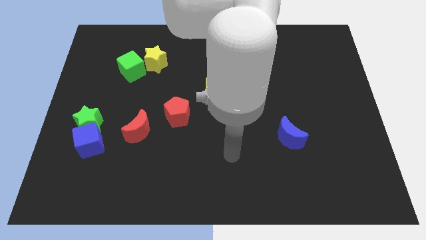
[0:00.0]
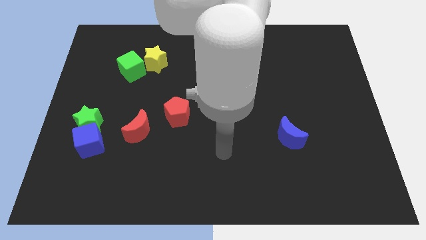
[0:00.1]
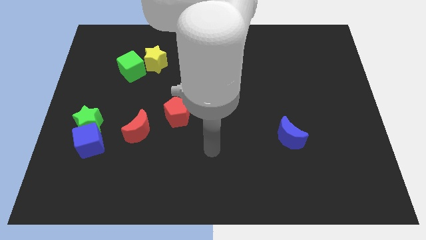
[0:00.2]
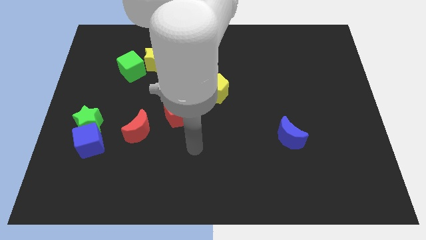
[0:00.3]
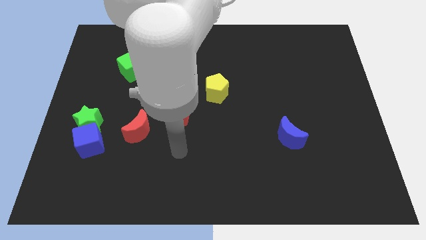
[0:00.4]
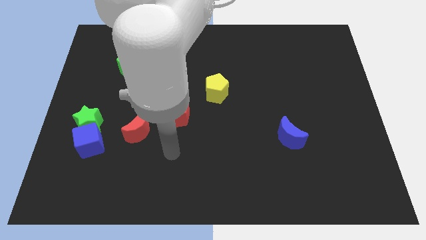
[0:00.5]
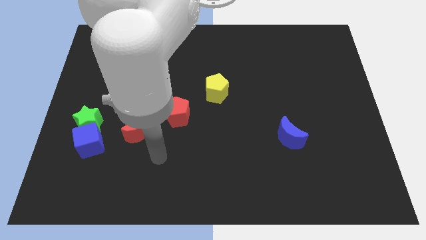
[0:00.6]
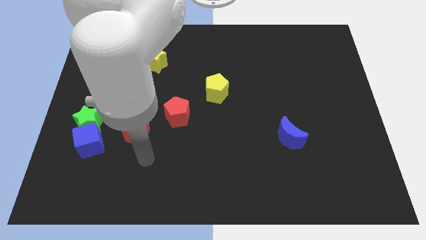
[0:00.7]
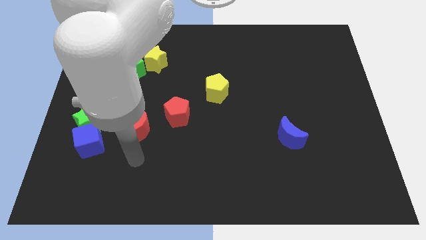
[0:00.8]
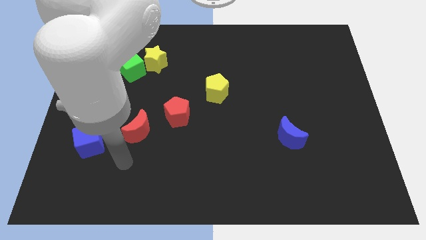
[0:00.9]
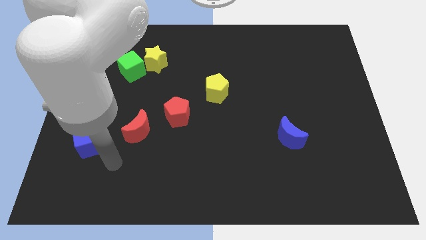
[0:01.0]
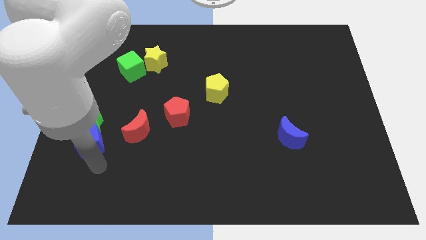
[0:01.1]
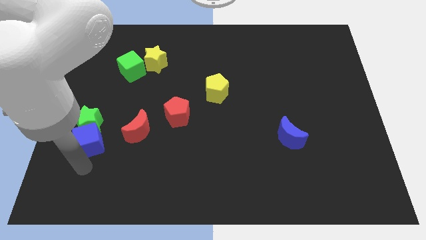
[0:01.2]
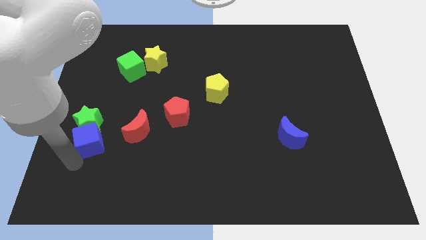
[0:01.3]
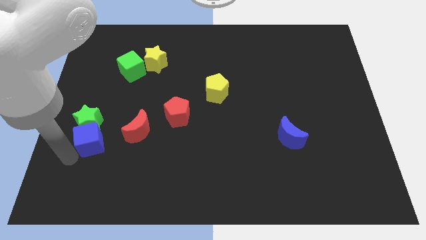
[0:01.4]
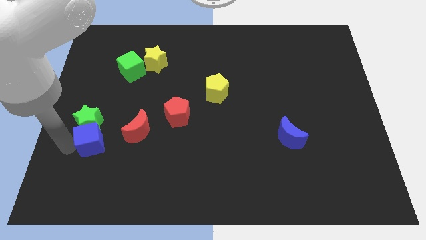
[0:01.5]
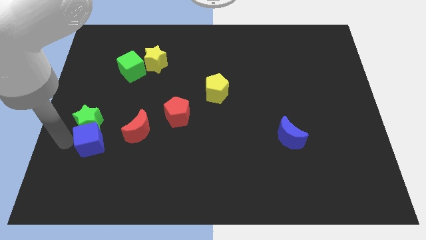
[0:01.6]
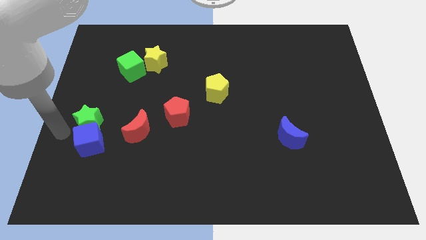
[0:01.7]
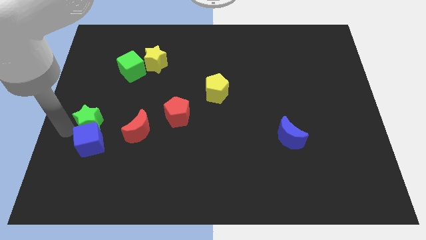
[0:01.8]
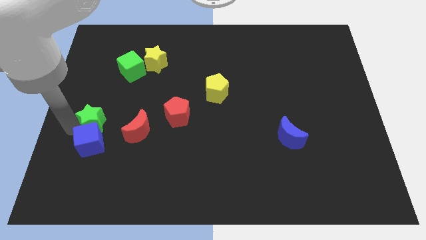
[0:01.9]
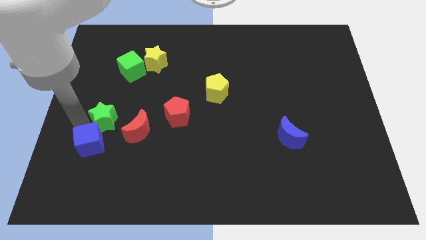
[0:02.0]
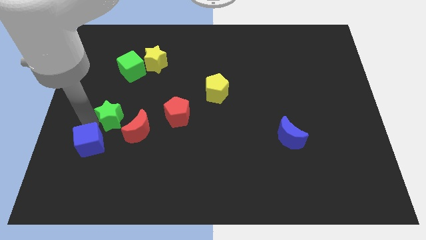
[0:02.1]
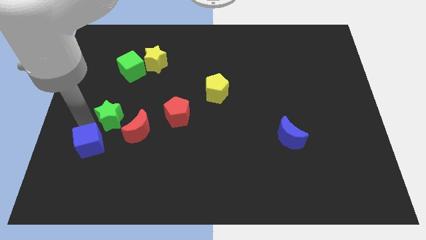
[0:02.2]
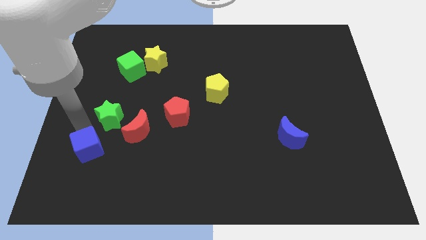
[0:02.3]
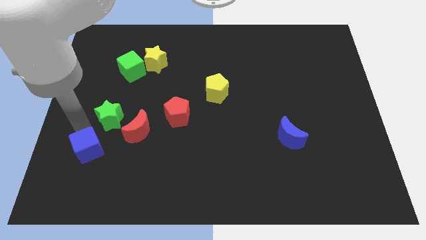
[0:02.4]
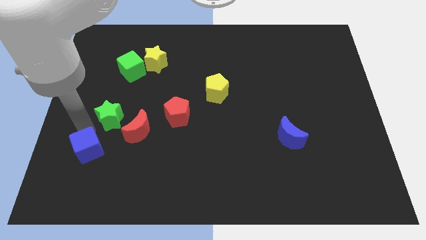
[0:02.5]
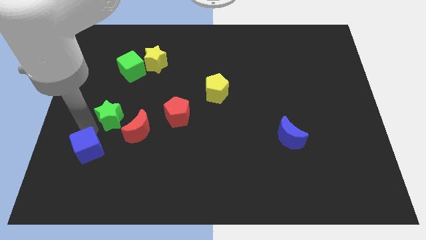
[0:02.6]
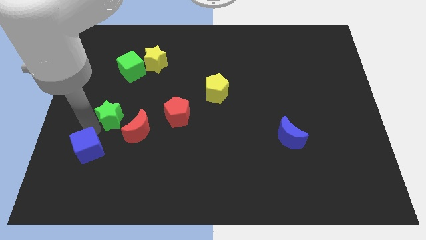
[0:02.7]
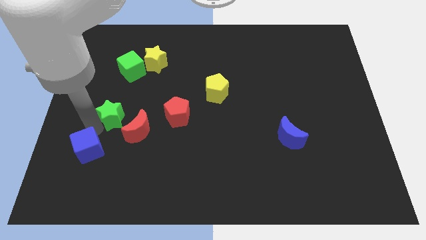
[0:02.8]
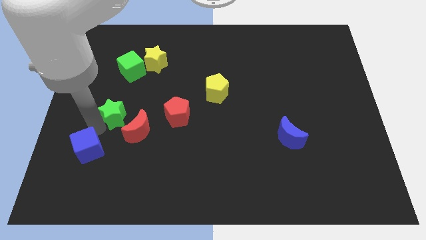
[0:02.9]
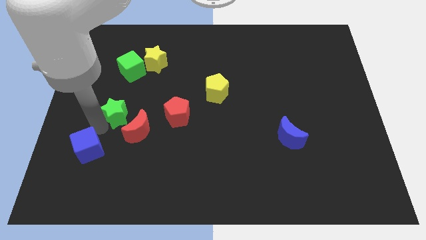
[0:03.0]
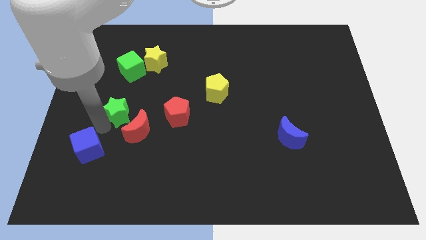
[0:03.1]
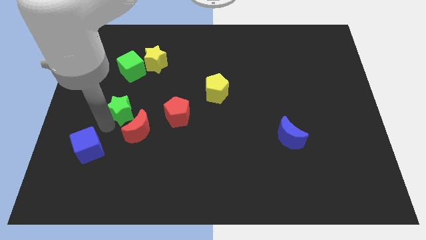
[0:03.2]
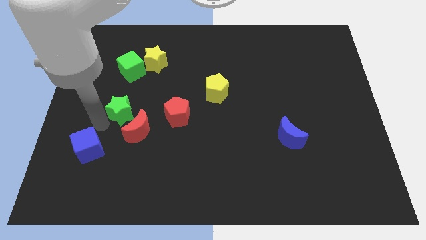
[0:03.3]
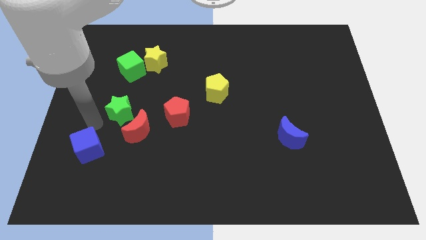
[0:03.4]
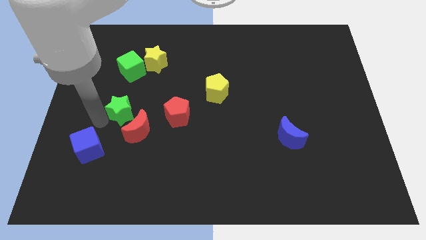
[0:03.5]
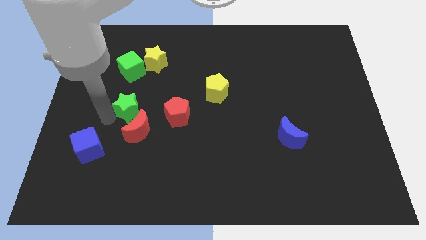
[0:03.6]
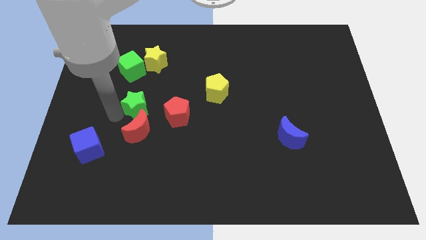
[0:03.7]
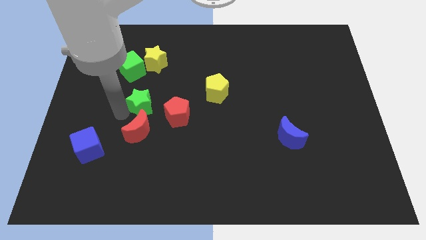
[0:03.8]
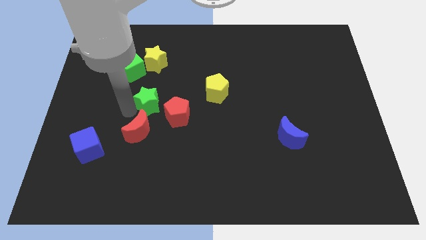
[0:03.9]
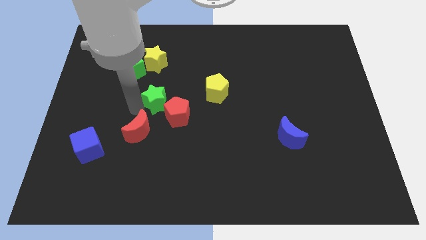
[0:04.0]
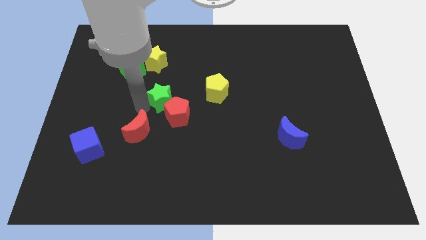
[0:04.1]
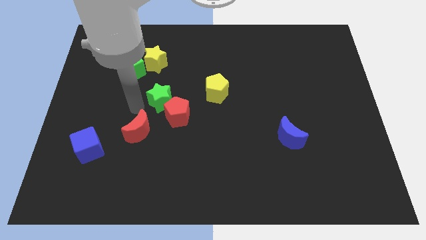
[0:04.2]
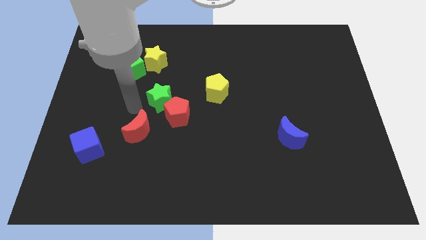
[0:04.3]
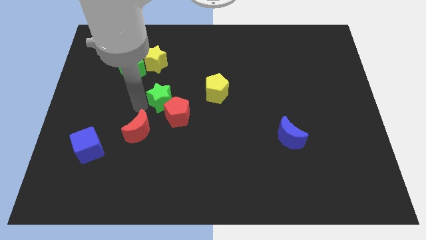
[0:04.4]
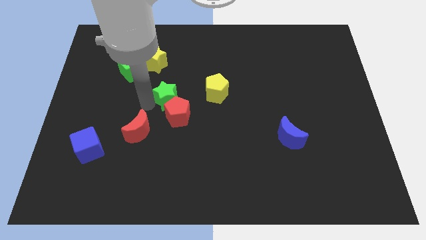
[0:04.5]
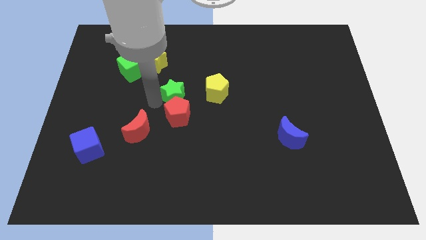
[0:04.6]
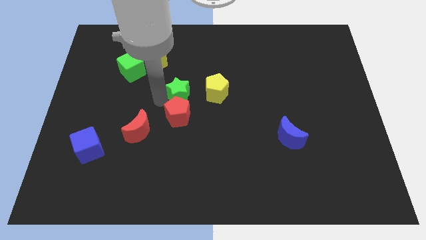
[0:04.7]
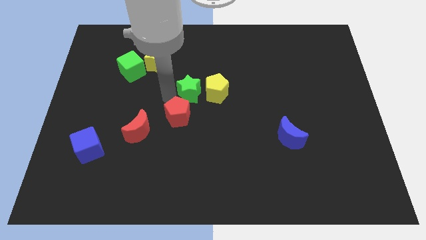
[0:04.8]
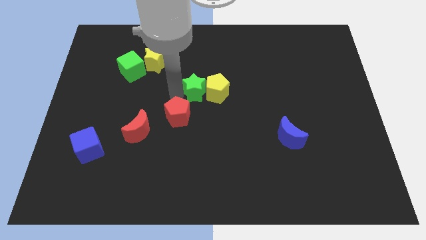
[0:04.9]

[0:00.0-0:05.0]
push the green star next to the yellow pentagon

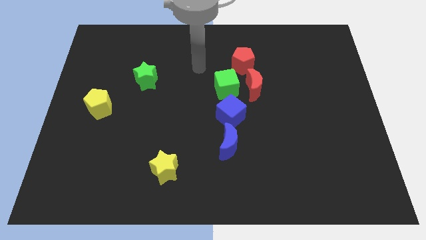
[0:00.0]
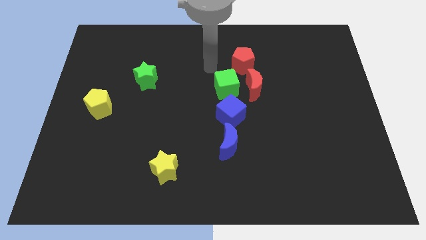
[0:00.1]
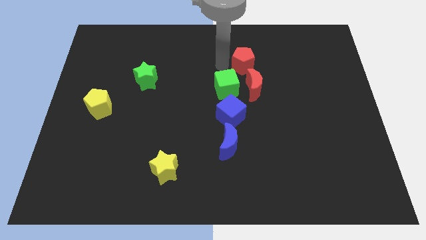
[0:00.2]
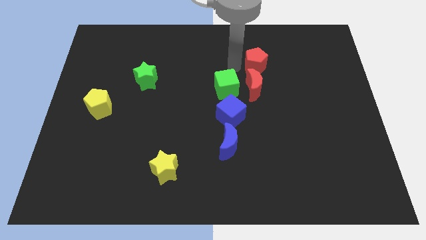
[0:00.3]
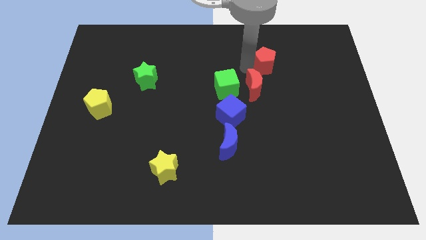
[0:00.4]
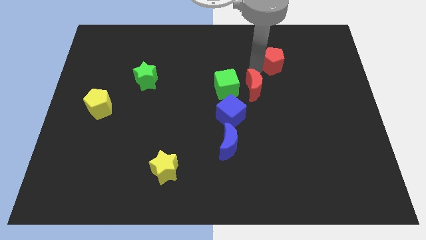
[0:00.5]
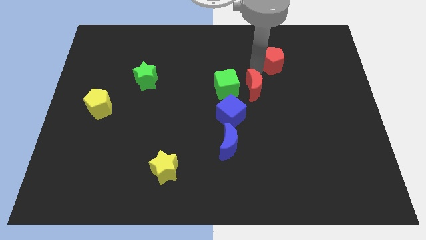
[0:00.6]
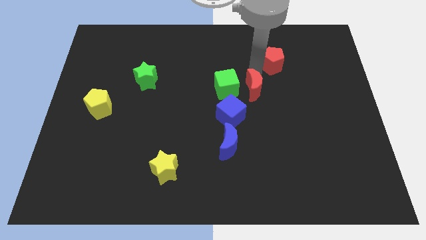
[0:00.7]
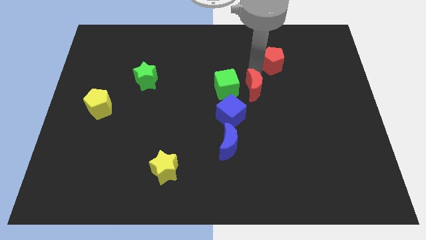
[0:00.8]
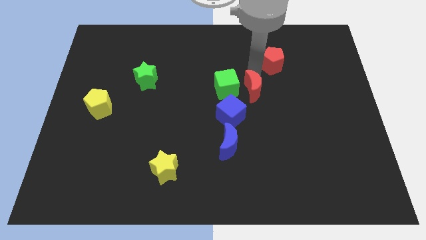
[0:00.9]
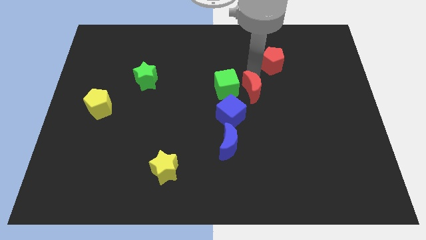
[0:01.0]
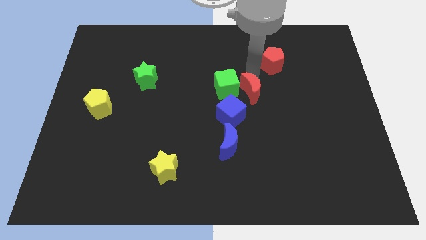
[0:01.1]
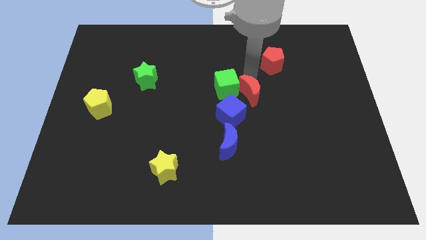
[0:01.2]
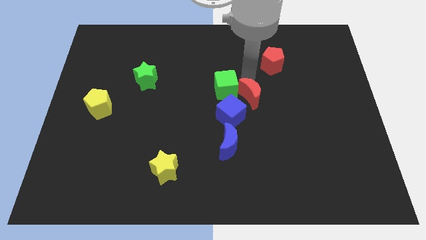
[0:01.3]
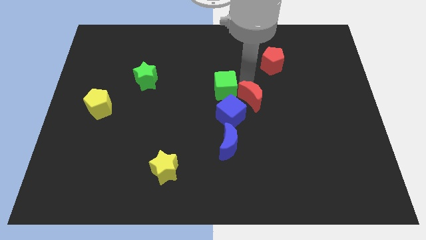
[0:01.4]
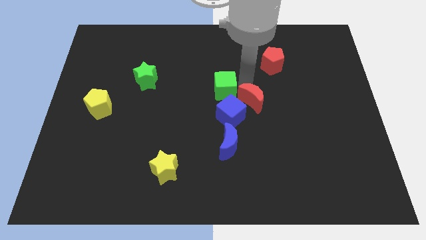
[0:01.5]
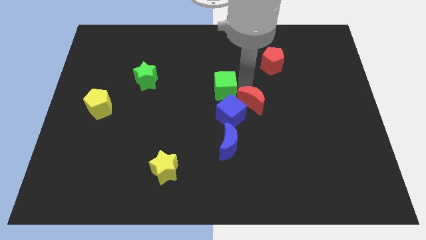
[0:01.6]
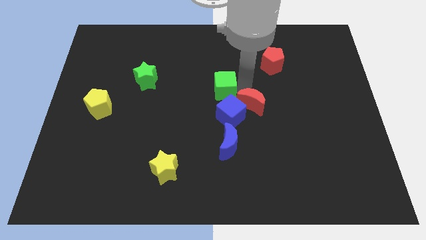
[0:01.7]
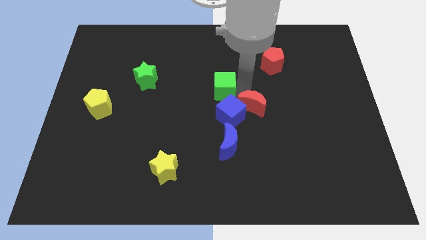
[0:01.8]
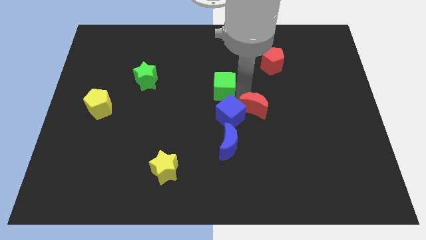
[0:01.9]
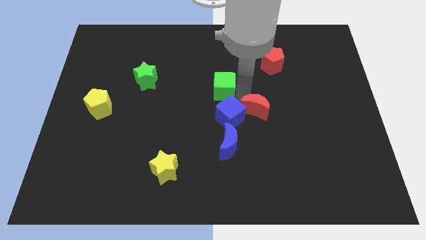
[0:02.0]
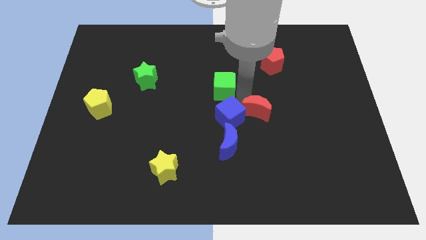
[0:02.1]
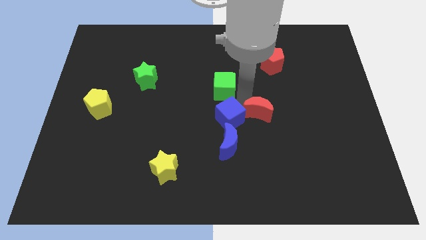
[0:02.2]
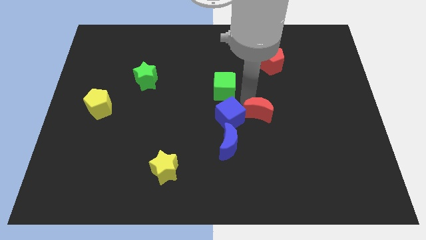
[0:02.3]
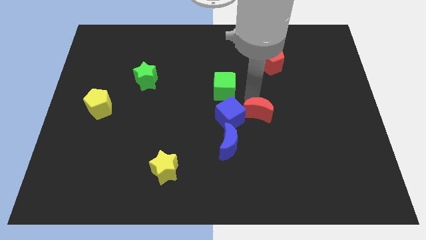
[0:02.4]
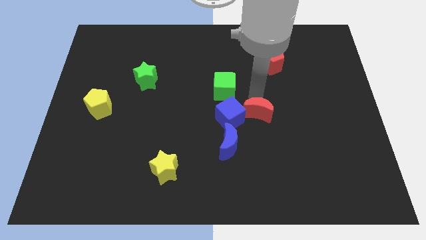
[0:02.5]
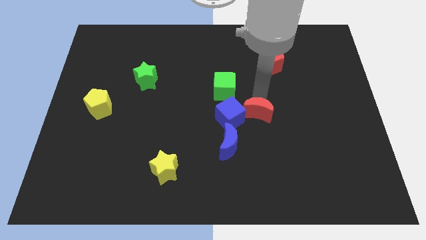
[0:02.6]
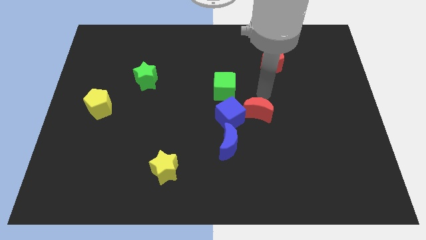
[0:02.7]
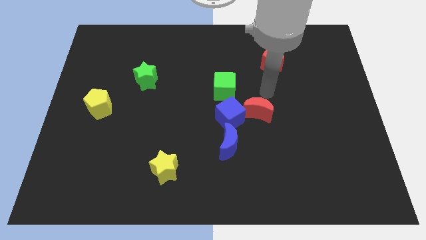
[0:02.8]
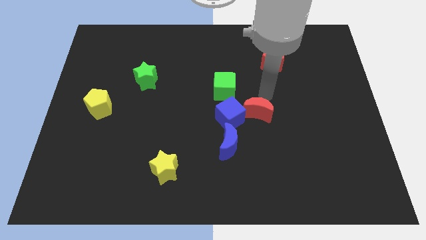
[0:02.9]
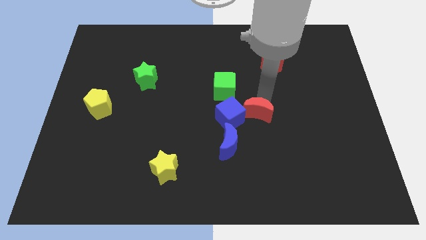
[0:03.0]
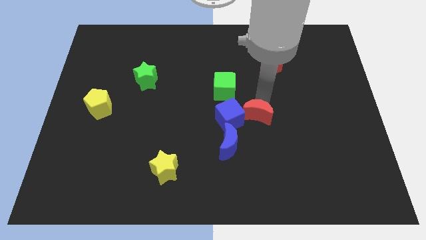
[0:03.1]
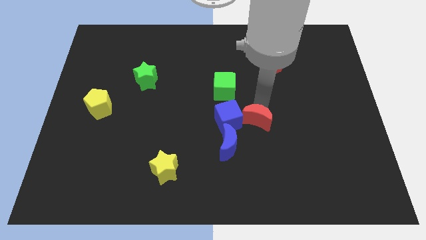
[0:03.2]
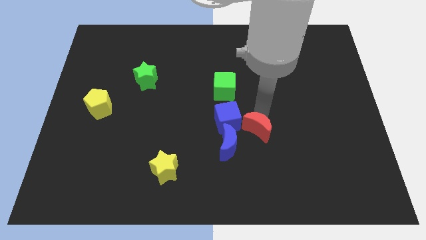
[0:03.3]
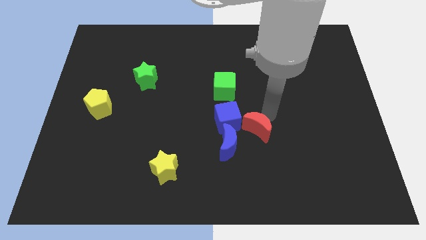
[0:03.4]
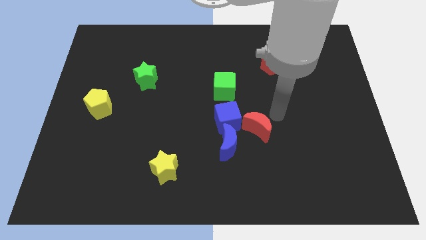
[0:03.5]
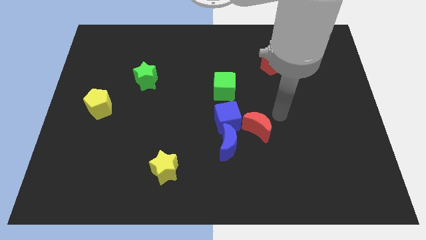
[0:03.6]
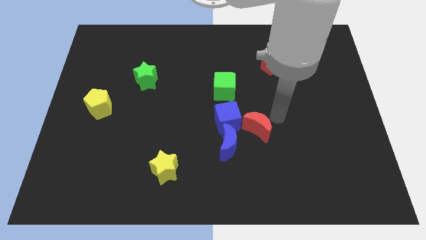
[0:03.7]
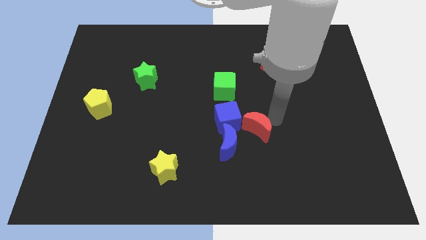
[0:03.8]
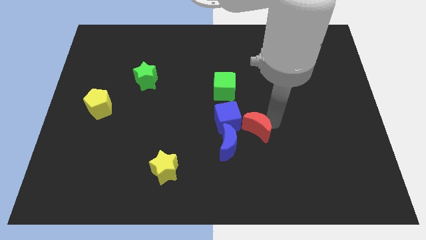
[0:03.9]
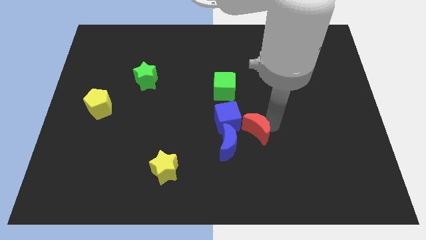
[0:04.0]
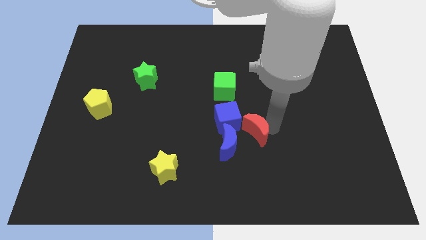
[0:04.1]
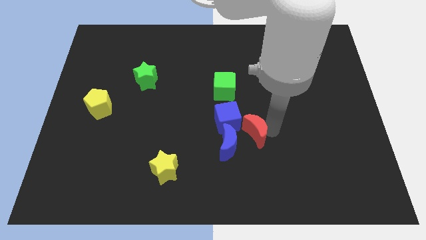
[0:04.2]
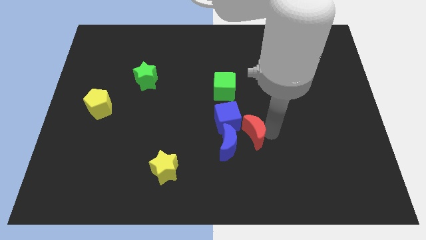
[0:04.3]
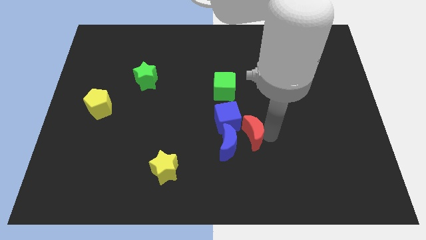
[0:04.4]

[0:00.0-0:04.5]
move the red moon close to the blue moon
